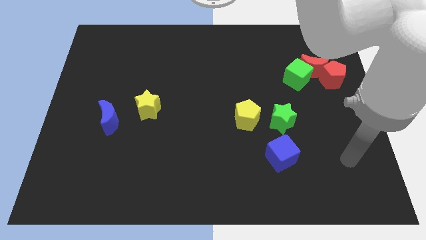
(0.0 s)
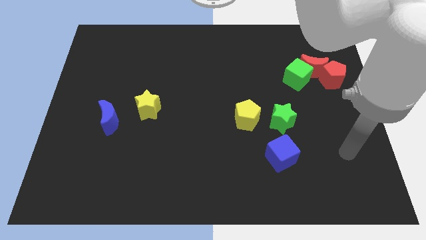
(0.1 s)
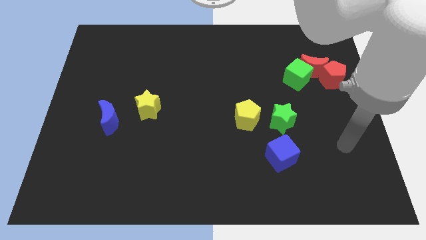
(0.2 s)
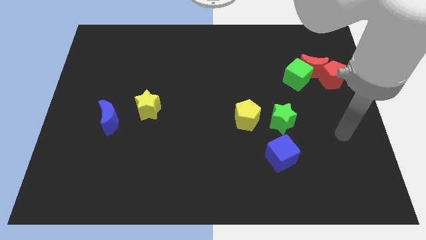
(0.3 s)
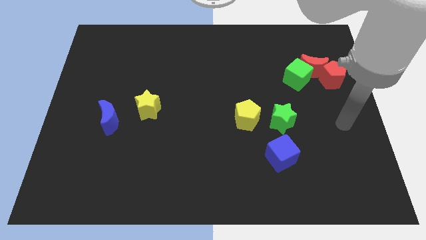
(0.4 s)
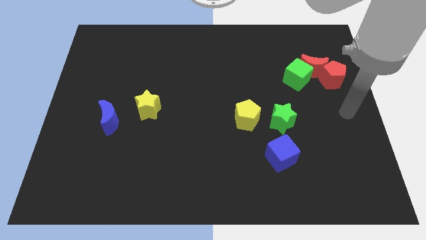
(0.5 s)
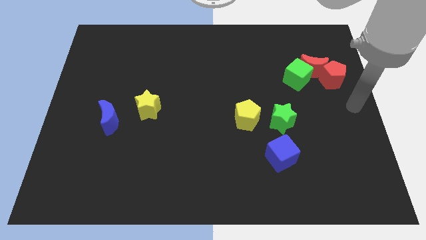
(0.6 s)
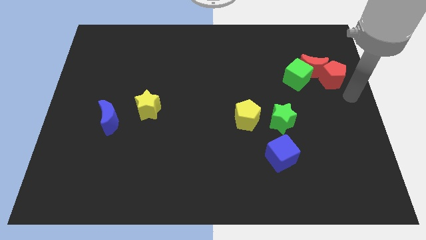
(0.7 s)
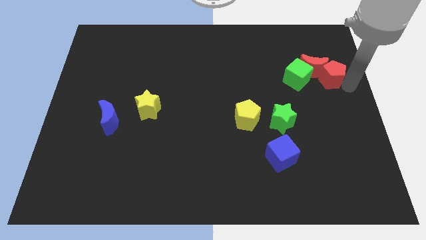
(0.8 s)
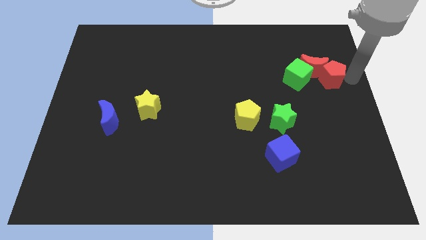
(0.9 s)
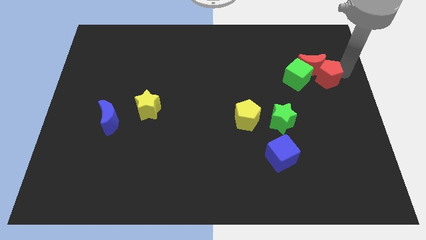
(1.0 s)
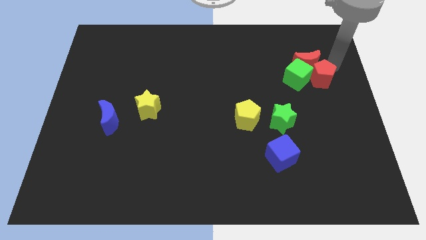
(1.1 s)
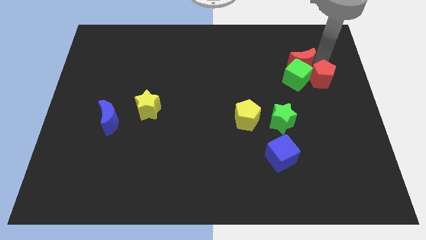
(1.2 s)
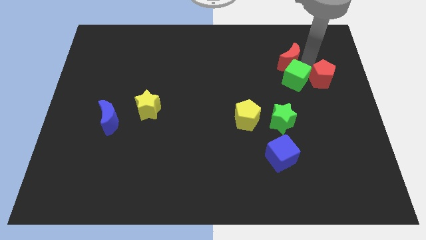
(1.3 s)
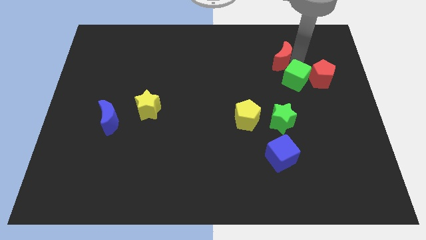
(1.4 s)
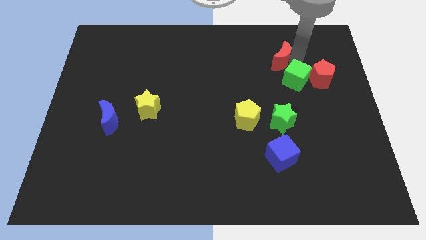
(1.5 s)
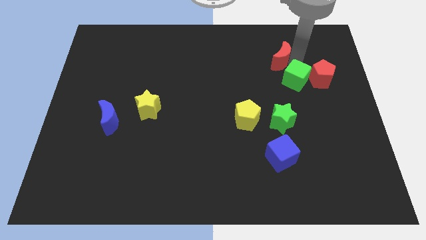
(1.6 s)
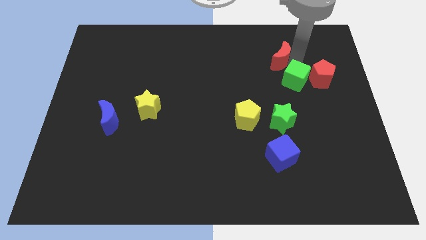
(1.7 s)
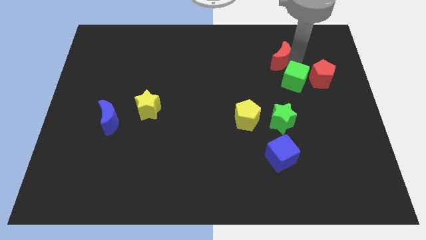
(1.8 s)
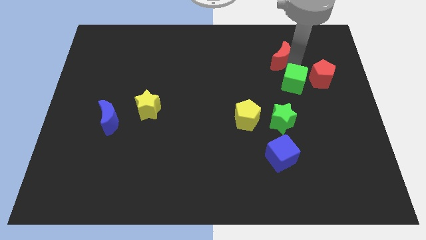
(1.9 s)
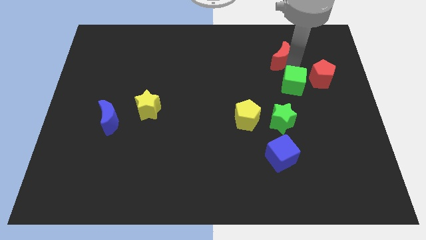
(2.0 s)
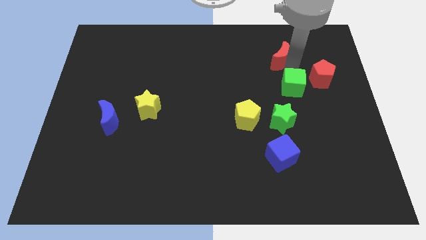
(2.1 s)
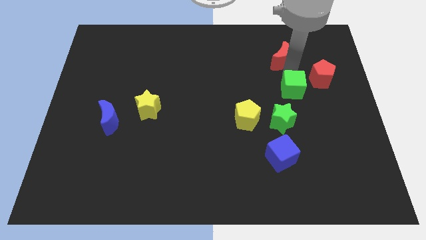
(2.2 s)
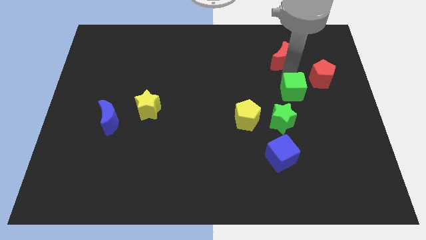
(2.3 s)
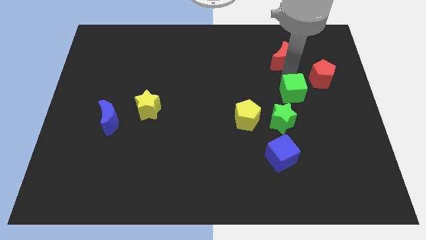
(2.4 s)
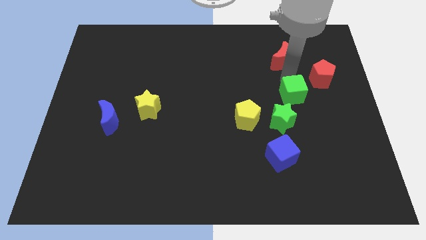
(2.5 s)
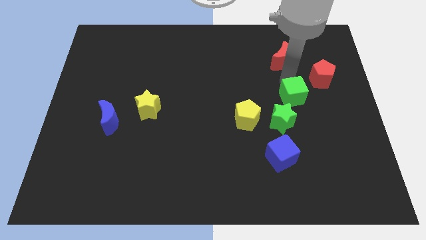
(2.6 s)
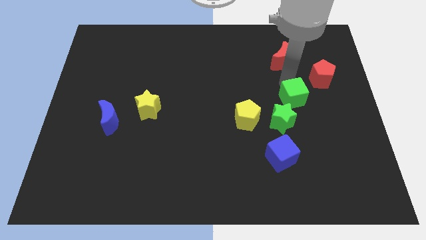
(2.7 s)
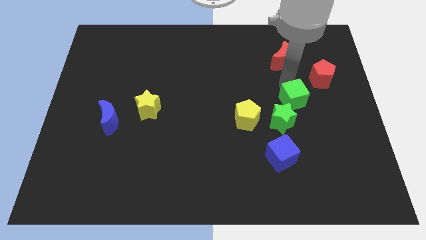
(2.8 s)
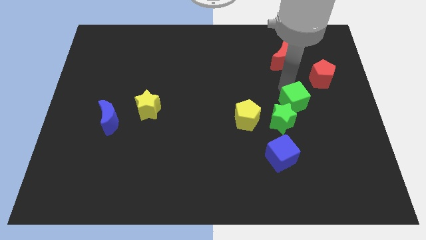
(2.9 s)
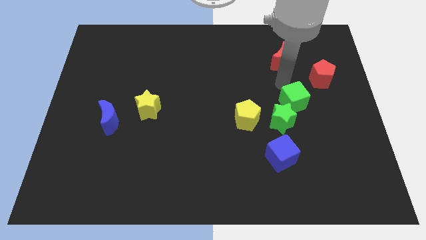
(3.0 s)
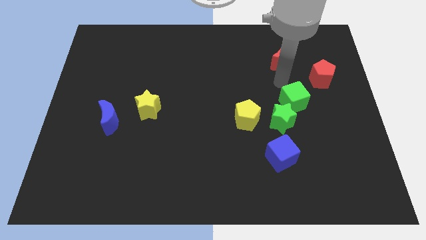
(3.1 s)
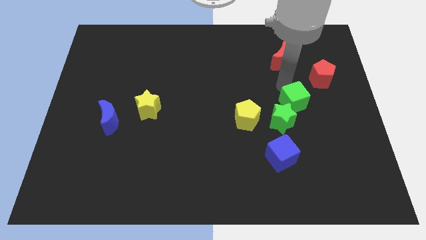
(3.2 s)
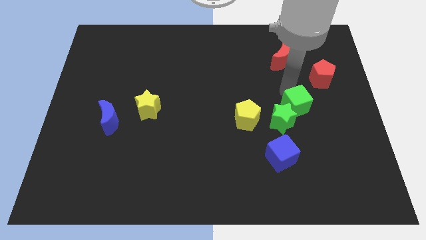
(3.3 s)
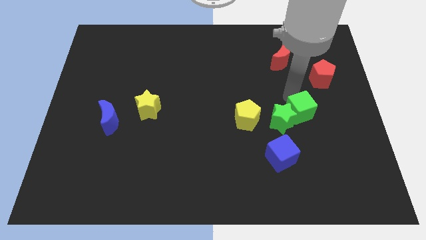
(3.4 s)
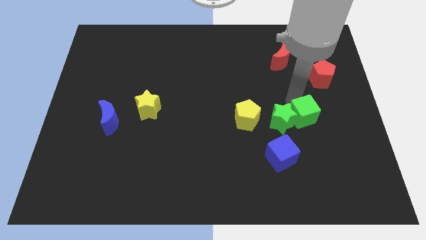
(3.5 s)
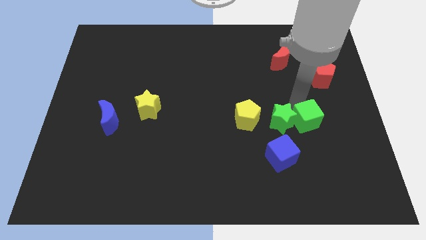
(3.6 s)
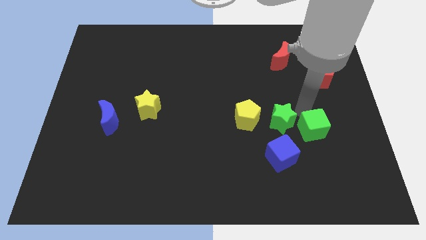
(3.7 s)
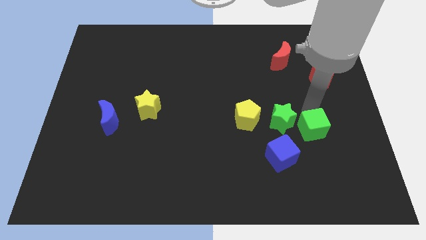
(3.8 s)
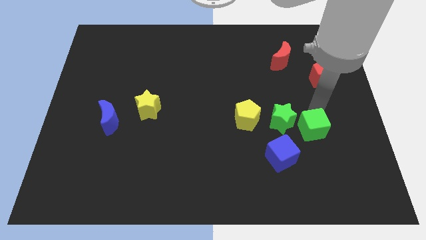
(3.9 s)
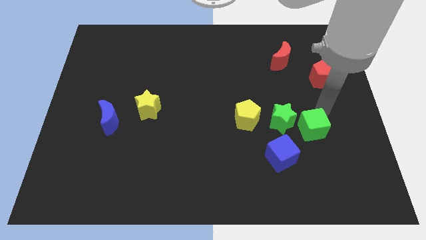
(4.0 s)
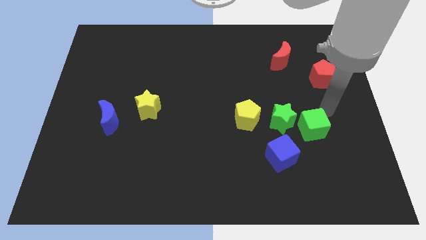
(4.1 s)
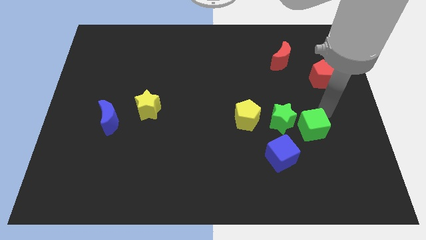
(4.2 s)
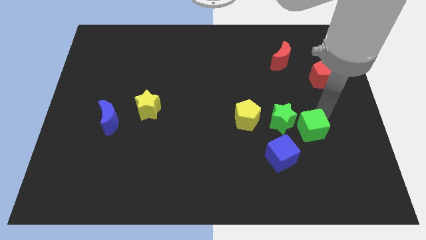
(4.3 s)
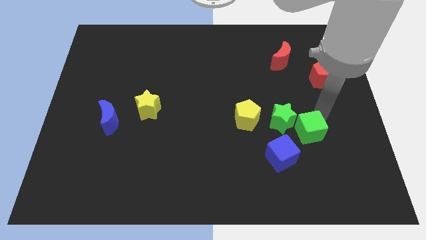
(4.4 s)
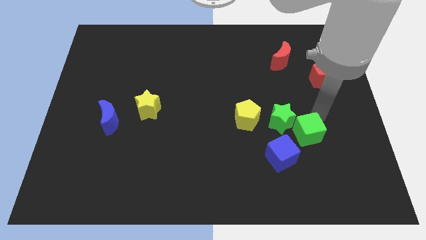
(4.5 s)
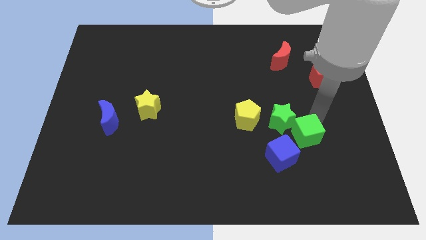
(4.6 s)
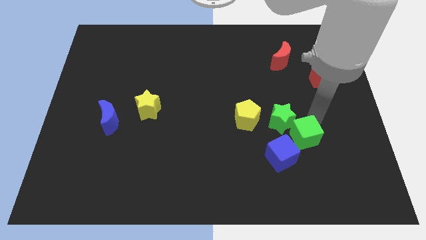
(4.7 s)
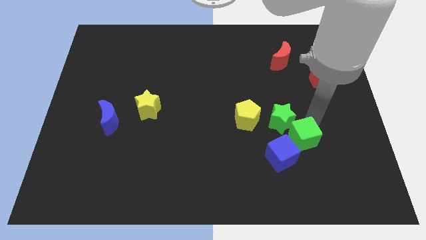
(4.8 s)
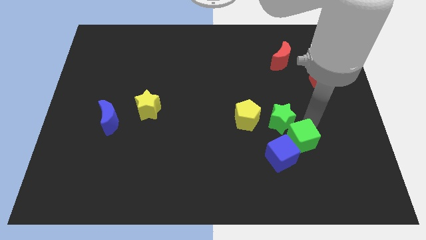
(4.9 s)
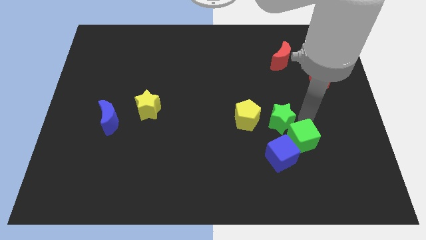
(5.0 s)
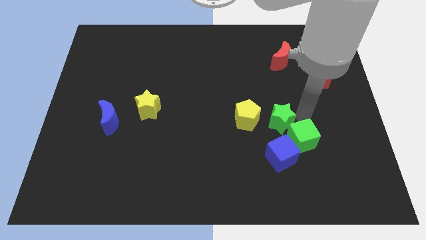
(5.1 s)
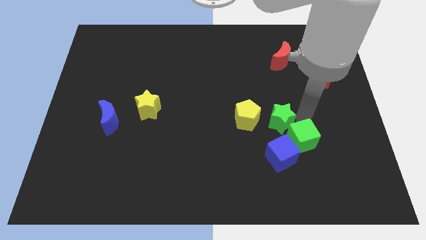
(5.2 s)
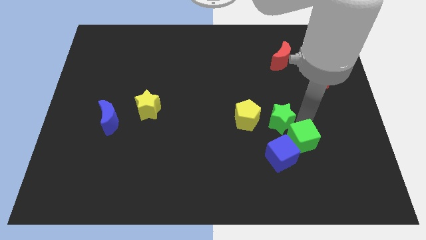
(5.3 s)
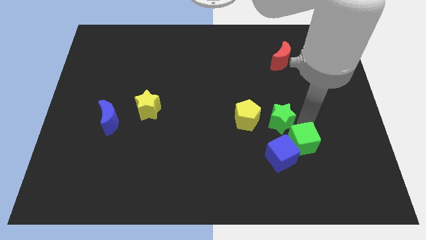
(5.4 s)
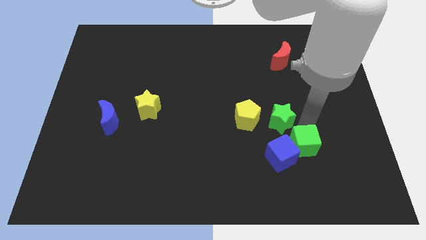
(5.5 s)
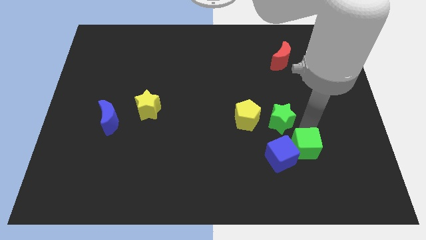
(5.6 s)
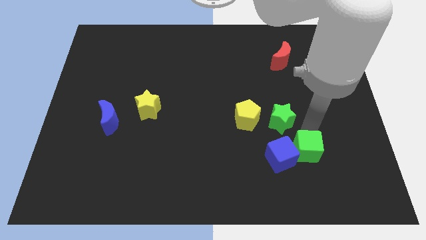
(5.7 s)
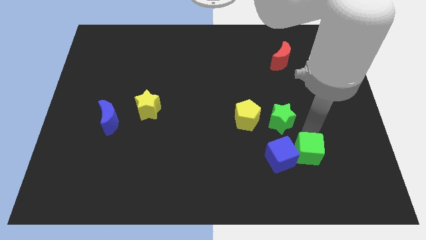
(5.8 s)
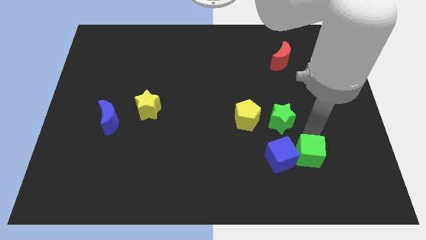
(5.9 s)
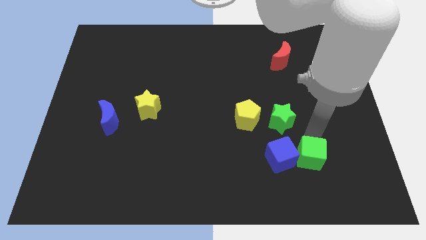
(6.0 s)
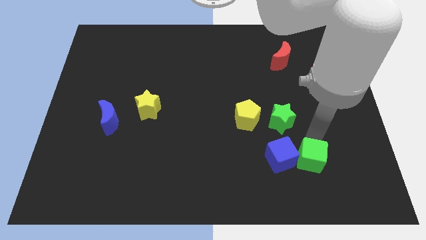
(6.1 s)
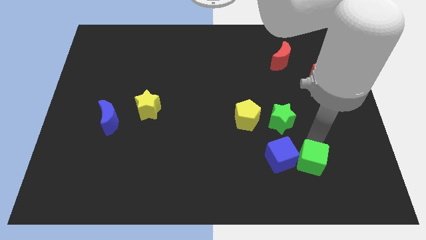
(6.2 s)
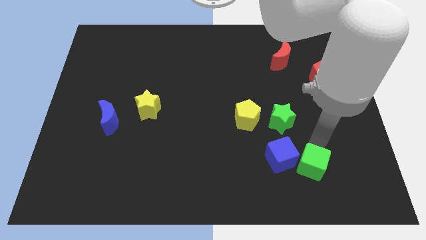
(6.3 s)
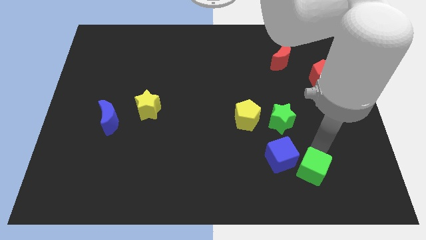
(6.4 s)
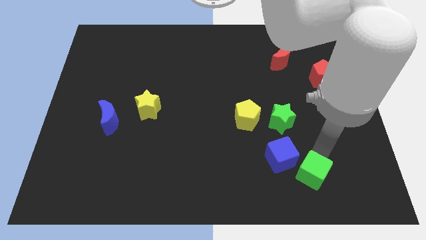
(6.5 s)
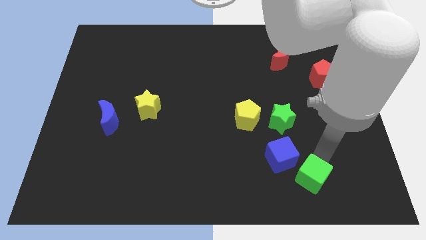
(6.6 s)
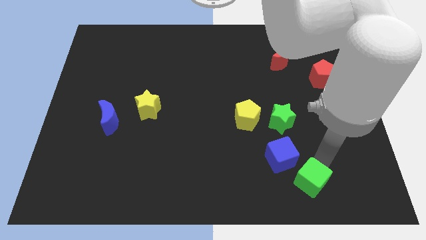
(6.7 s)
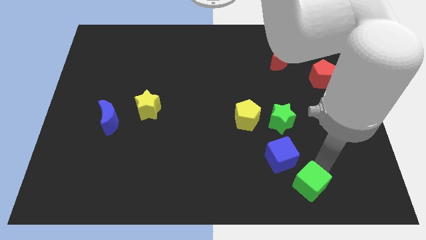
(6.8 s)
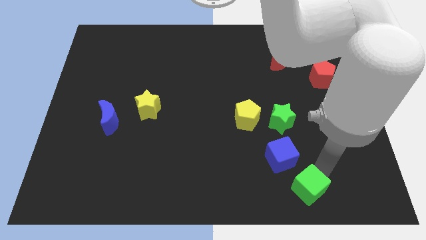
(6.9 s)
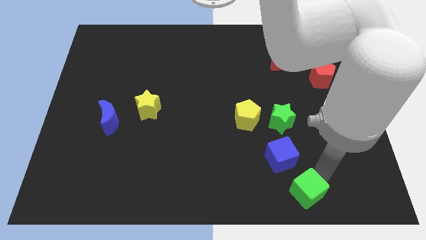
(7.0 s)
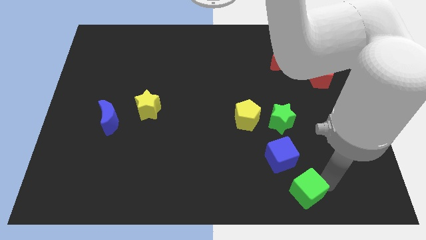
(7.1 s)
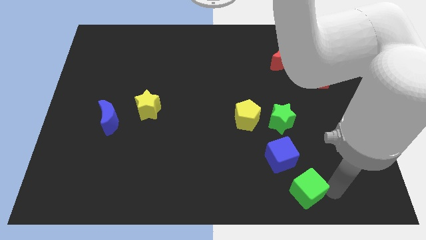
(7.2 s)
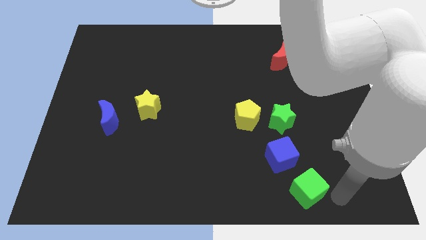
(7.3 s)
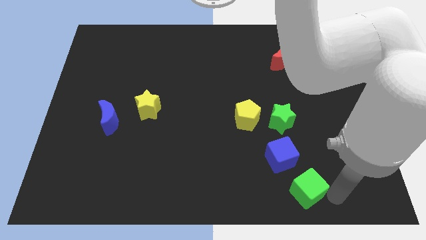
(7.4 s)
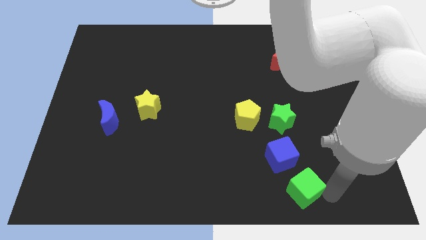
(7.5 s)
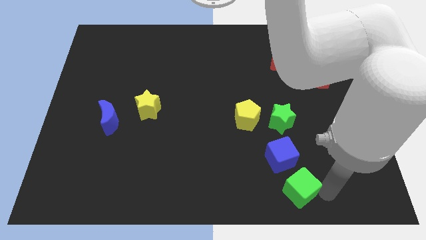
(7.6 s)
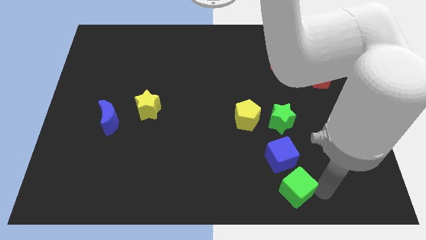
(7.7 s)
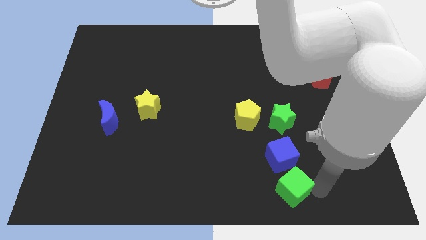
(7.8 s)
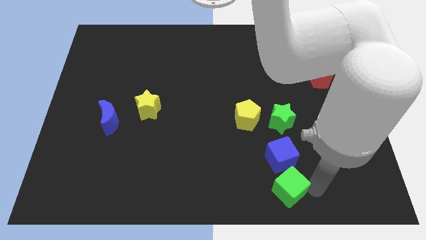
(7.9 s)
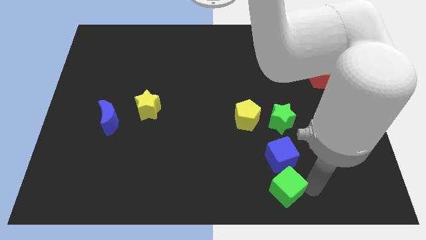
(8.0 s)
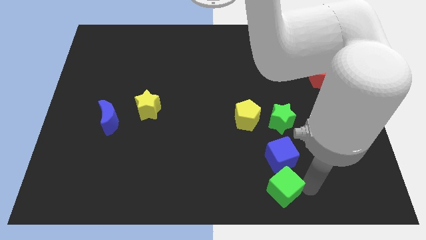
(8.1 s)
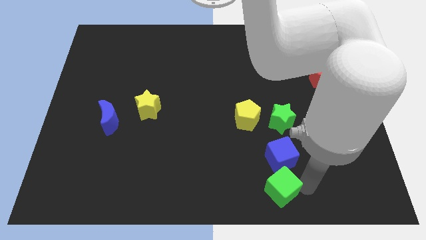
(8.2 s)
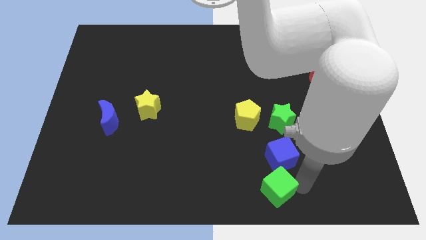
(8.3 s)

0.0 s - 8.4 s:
push the green cube to the bottom side
